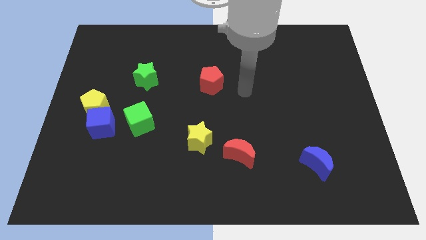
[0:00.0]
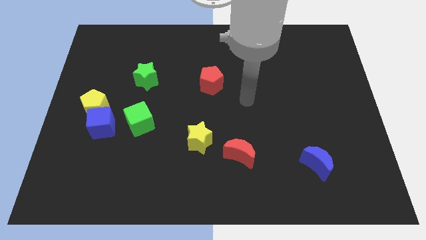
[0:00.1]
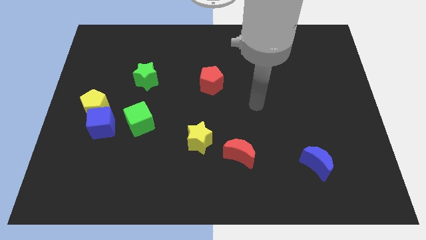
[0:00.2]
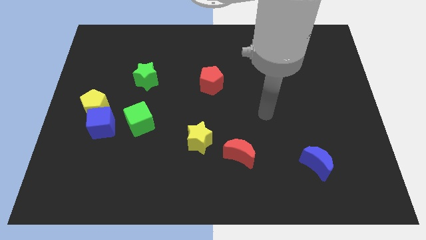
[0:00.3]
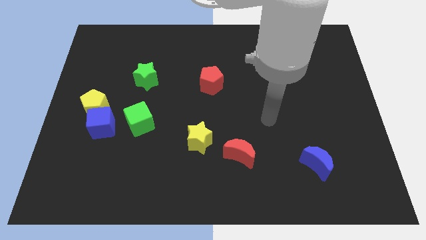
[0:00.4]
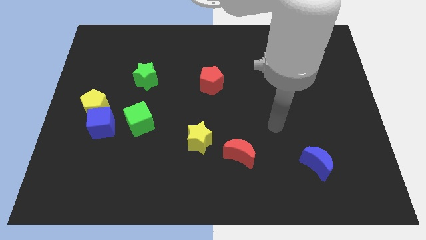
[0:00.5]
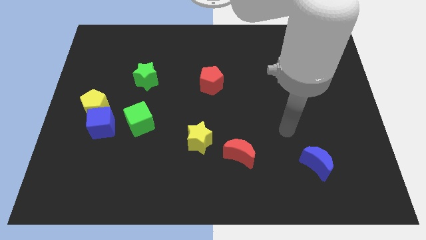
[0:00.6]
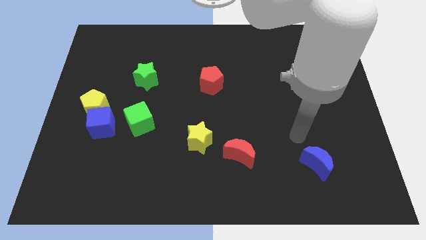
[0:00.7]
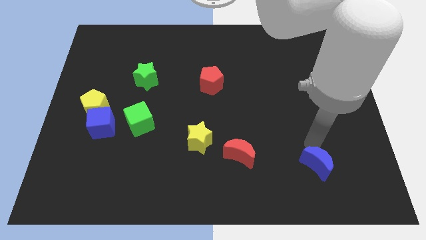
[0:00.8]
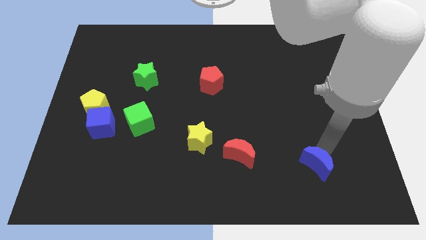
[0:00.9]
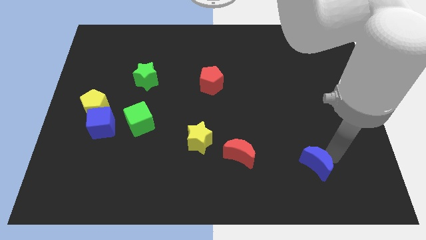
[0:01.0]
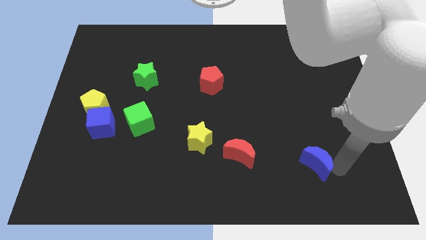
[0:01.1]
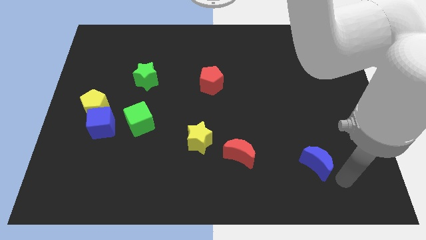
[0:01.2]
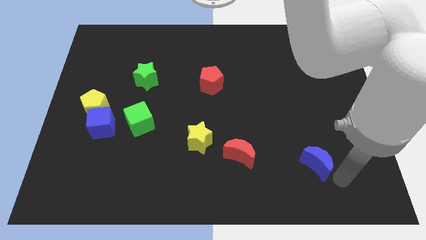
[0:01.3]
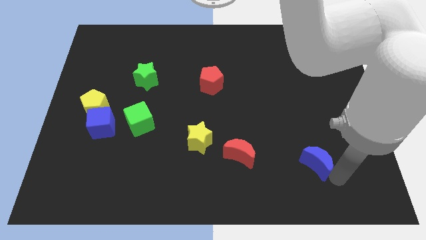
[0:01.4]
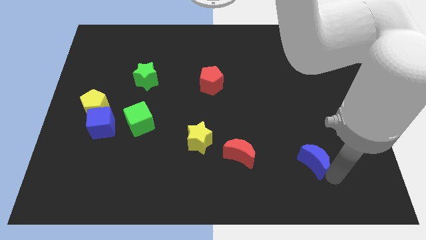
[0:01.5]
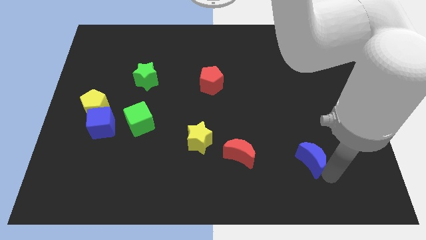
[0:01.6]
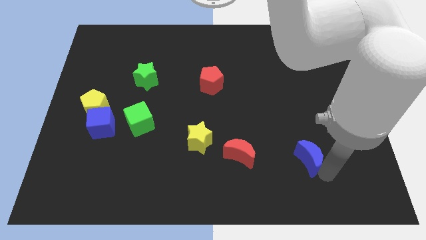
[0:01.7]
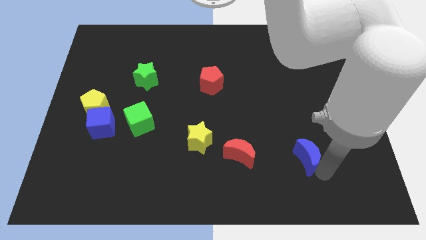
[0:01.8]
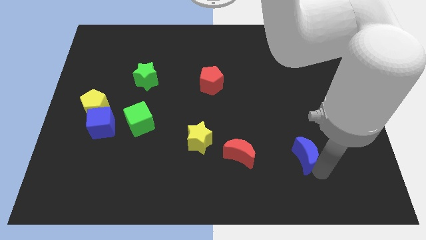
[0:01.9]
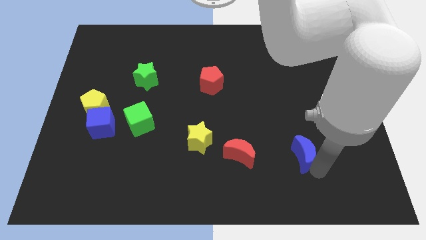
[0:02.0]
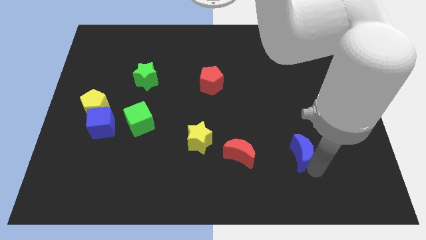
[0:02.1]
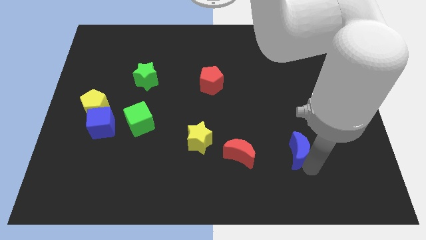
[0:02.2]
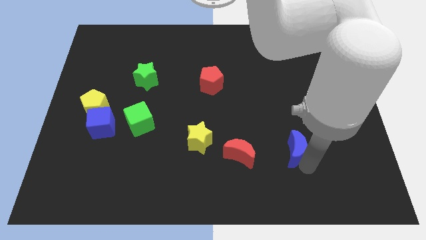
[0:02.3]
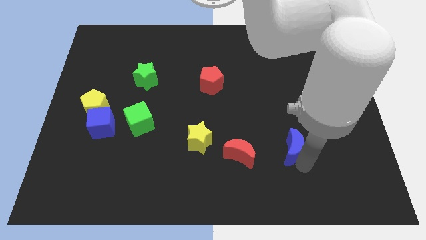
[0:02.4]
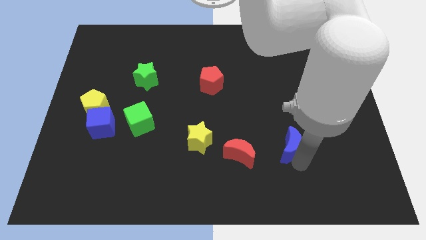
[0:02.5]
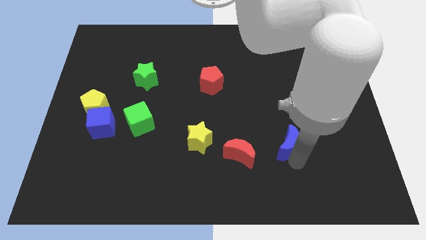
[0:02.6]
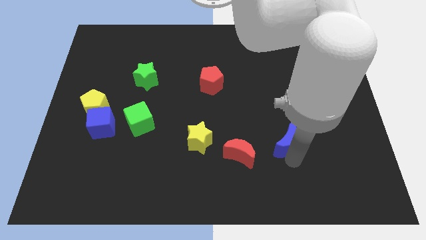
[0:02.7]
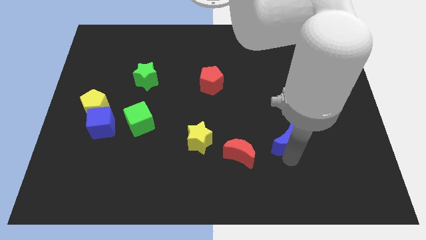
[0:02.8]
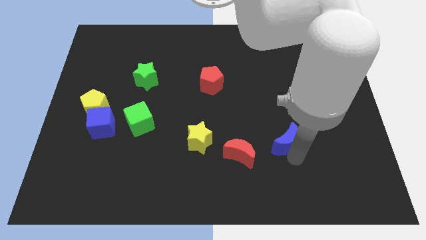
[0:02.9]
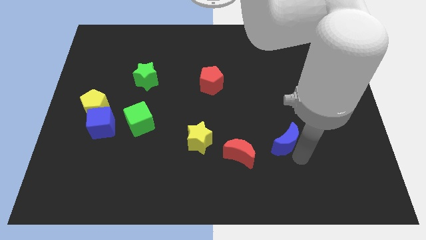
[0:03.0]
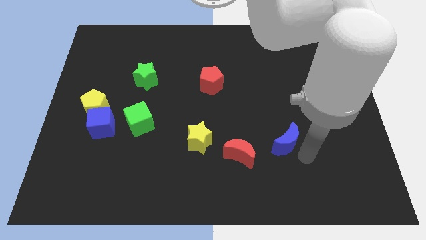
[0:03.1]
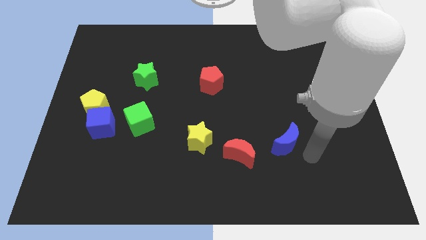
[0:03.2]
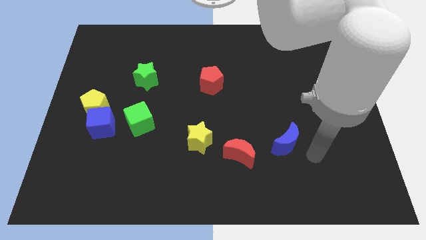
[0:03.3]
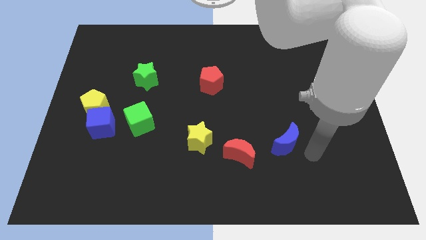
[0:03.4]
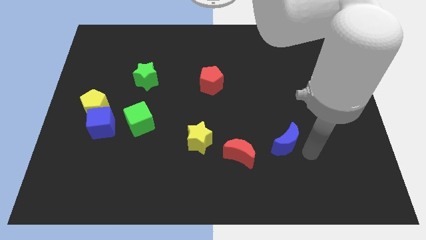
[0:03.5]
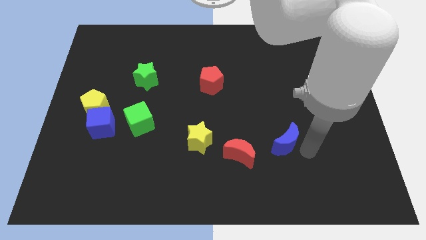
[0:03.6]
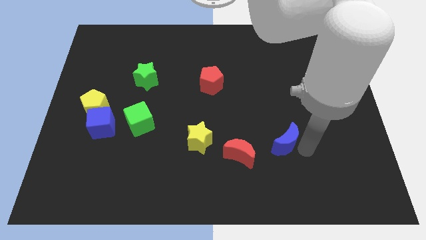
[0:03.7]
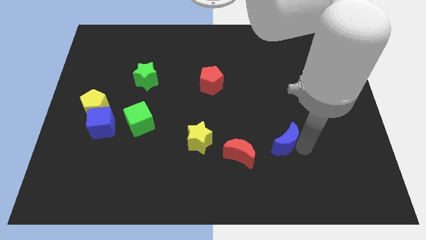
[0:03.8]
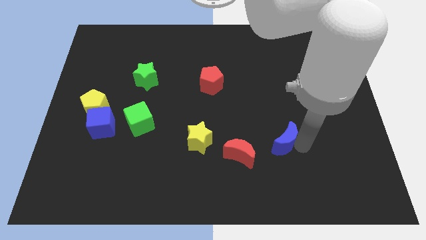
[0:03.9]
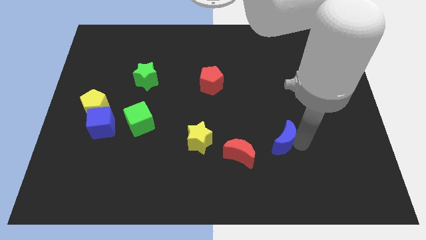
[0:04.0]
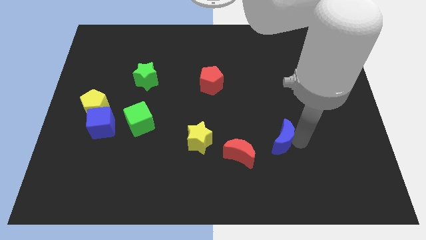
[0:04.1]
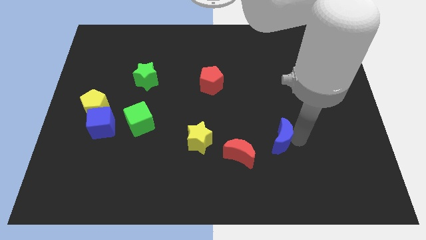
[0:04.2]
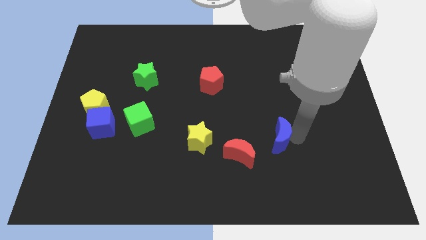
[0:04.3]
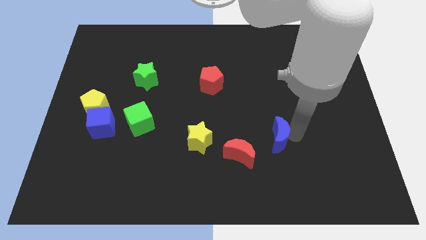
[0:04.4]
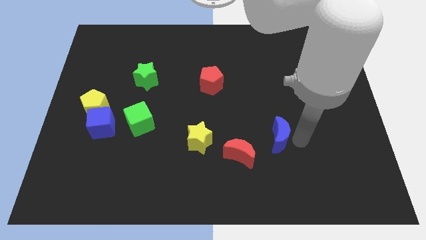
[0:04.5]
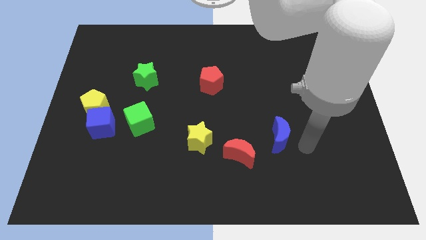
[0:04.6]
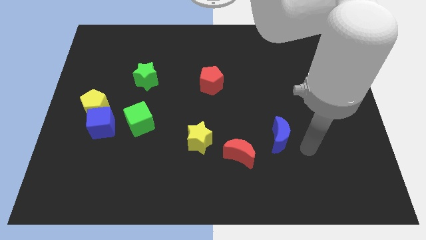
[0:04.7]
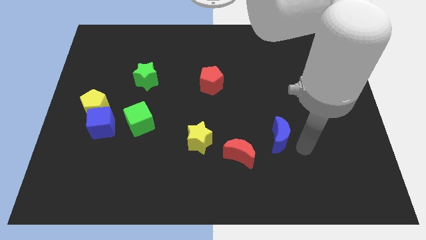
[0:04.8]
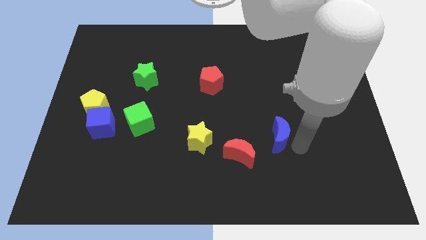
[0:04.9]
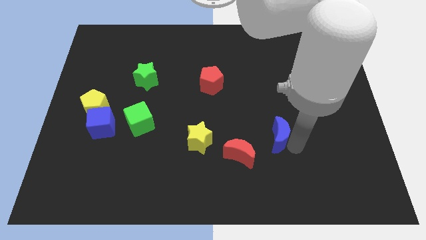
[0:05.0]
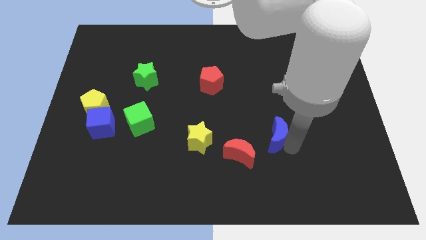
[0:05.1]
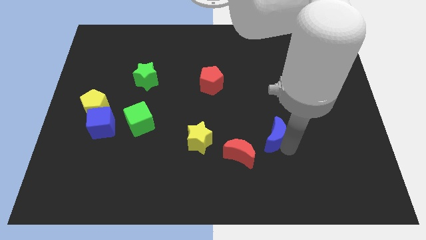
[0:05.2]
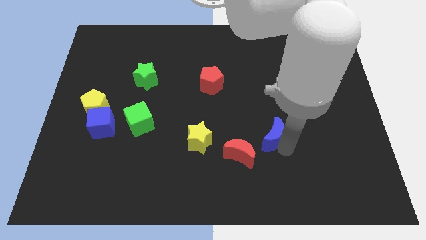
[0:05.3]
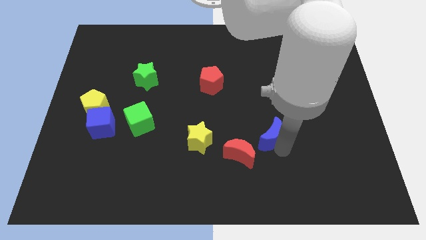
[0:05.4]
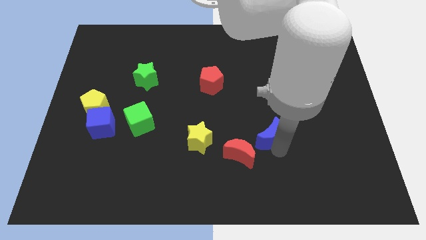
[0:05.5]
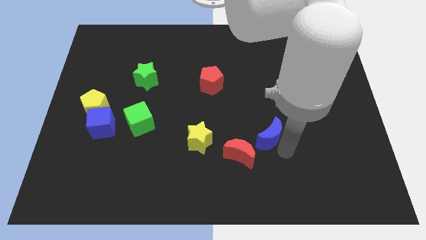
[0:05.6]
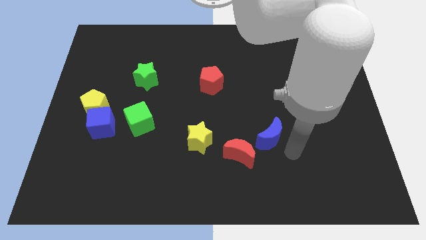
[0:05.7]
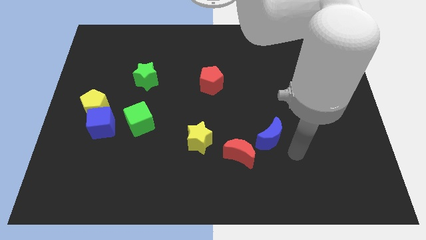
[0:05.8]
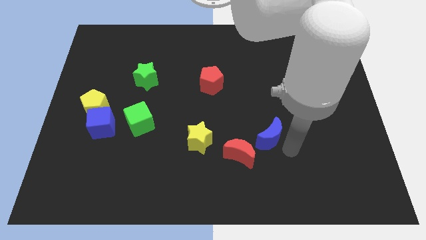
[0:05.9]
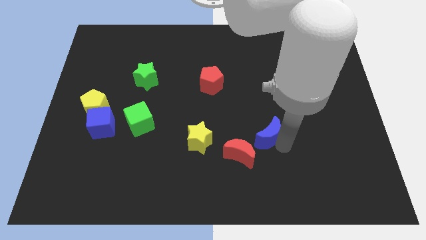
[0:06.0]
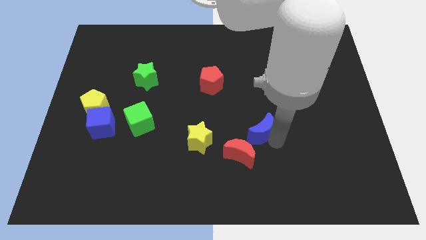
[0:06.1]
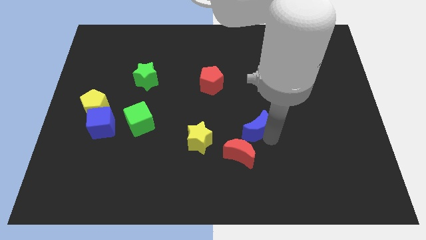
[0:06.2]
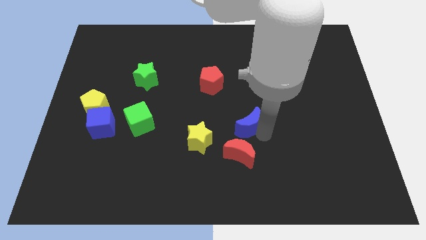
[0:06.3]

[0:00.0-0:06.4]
put the blue moon to the middle
